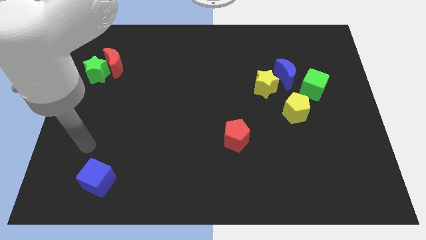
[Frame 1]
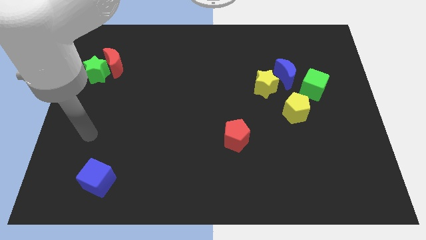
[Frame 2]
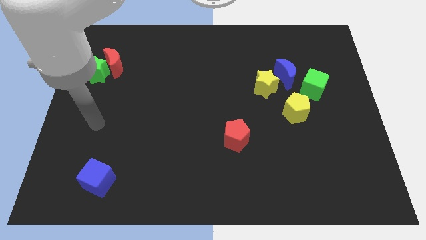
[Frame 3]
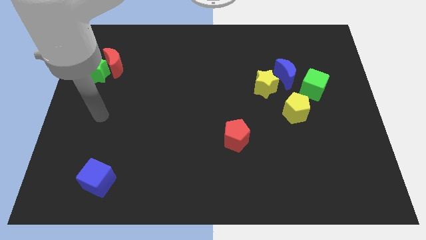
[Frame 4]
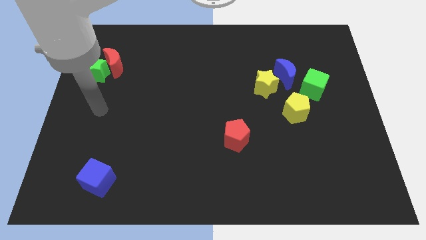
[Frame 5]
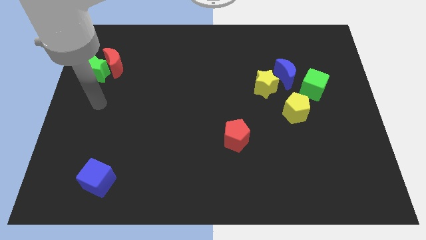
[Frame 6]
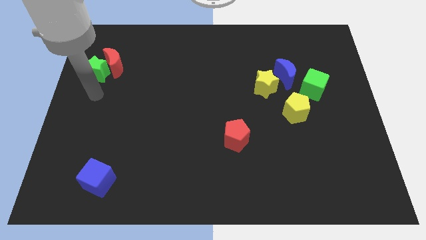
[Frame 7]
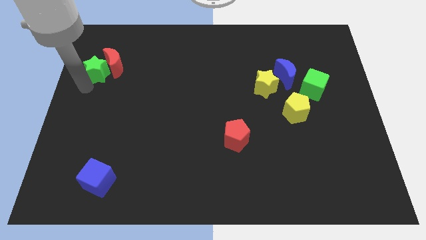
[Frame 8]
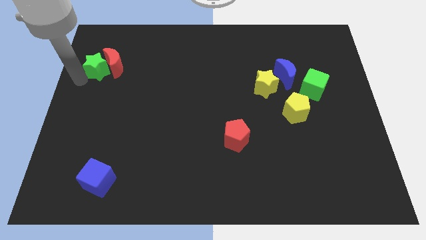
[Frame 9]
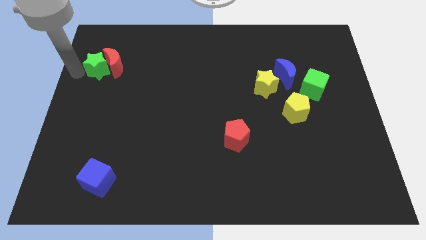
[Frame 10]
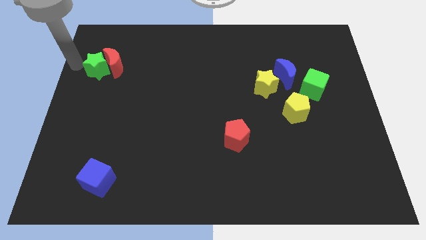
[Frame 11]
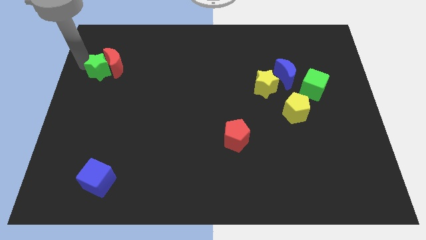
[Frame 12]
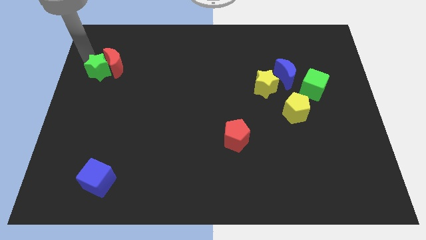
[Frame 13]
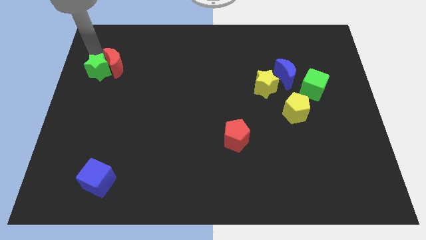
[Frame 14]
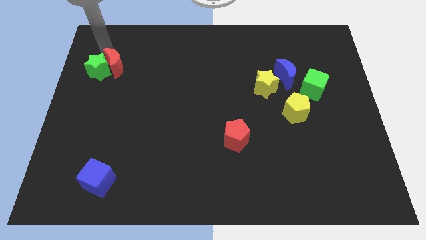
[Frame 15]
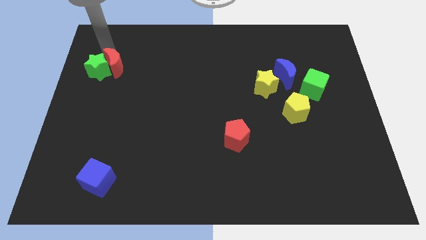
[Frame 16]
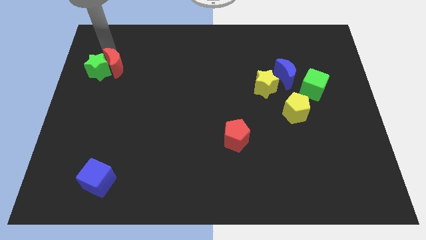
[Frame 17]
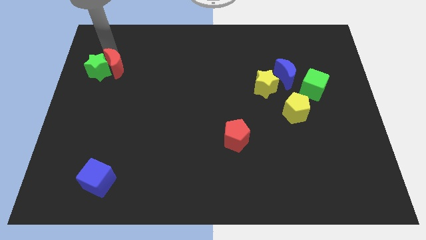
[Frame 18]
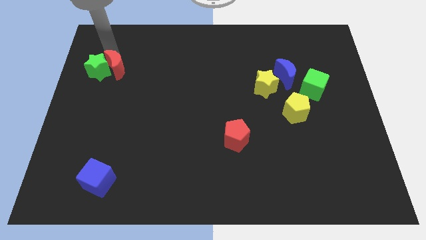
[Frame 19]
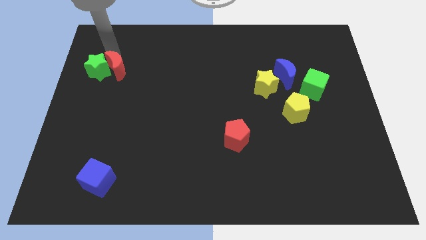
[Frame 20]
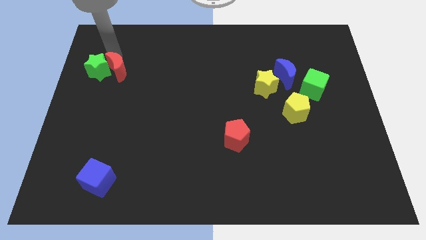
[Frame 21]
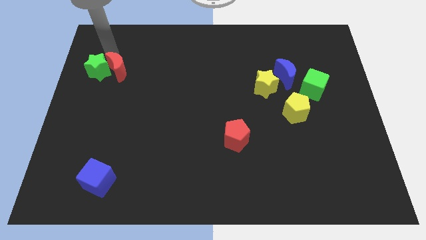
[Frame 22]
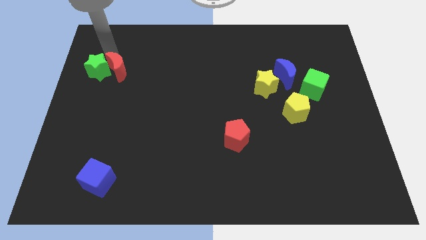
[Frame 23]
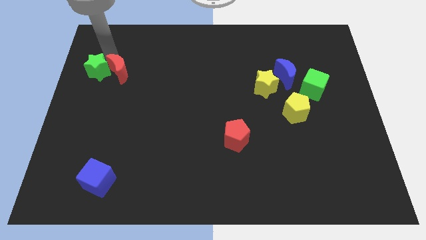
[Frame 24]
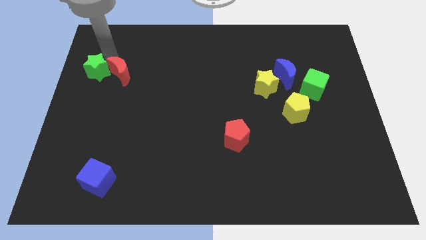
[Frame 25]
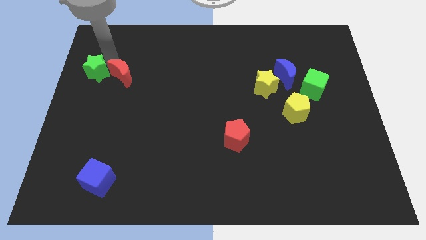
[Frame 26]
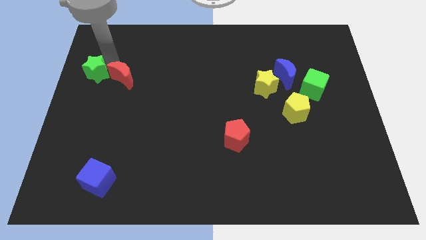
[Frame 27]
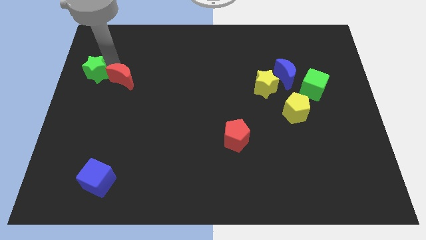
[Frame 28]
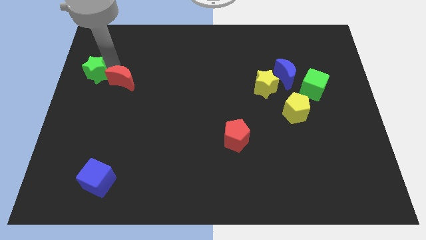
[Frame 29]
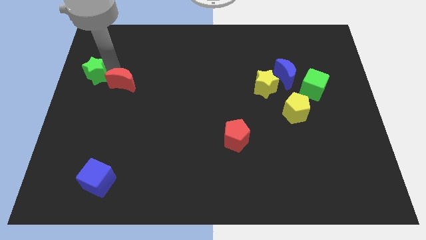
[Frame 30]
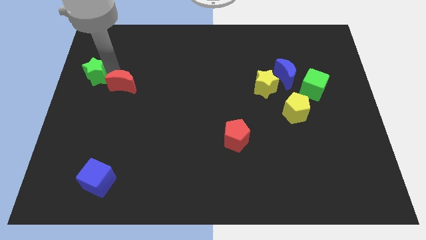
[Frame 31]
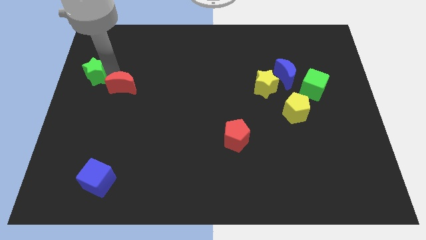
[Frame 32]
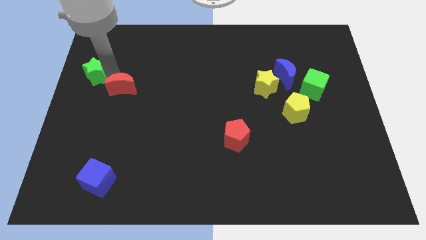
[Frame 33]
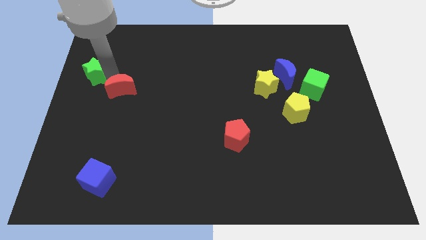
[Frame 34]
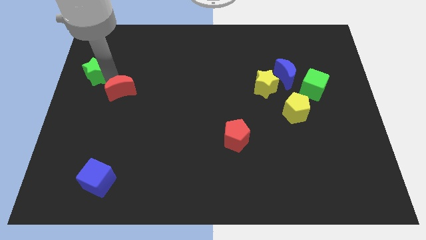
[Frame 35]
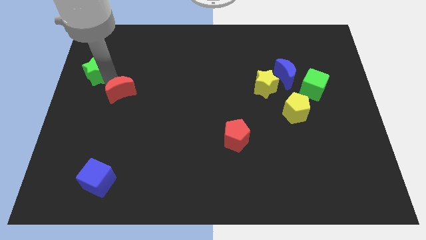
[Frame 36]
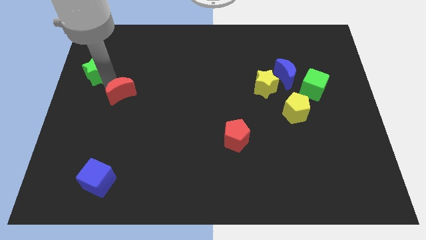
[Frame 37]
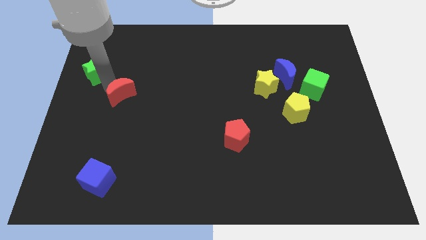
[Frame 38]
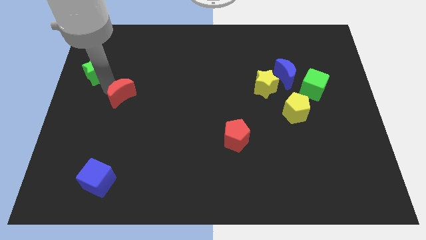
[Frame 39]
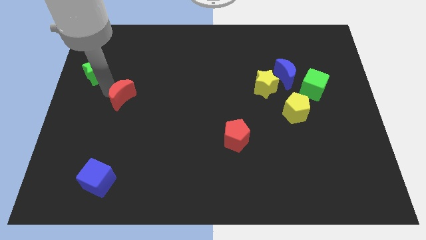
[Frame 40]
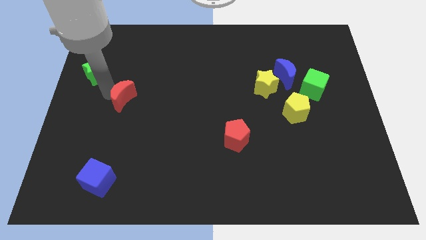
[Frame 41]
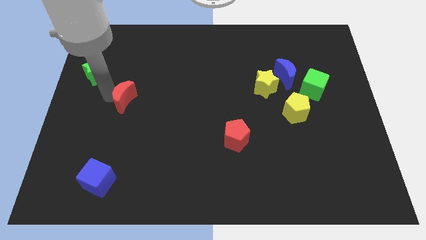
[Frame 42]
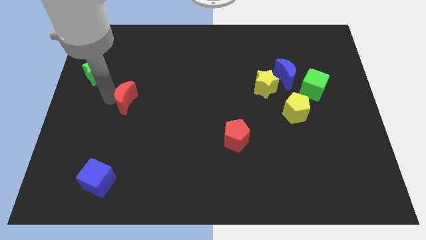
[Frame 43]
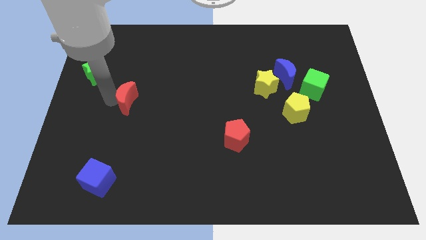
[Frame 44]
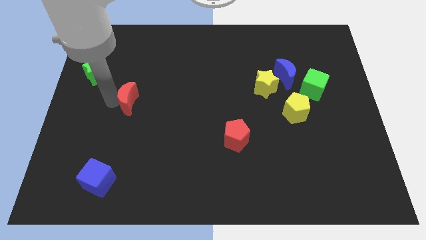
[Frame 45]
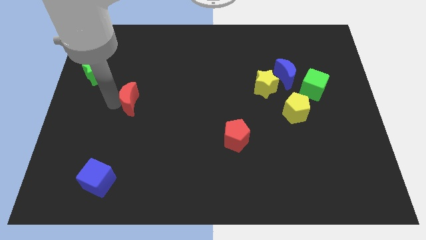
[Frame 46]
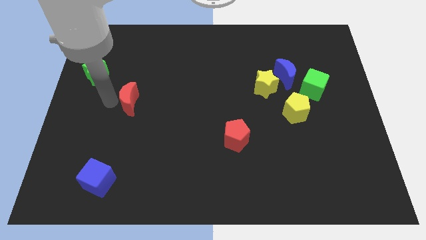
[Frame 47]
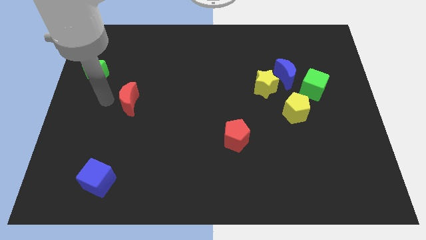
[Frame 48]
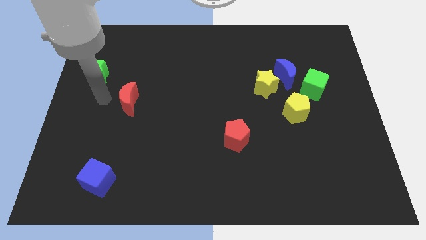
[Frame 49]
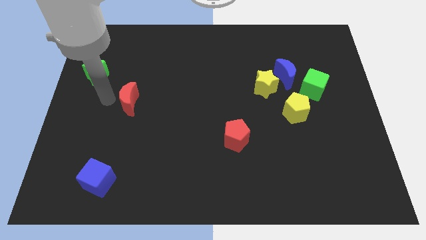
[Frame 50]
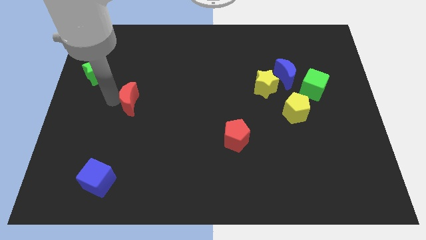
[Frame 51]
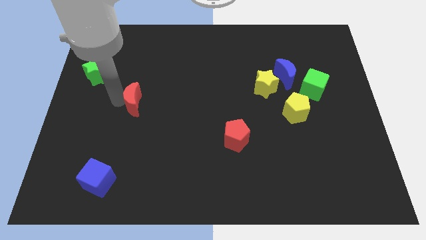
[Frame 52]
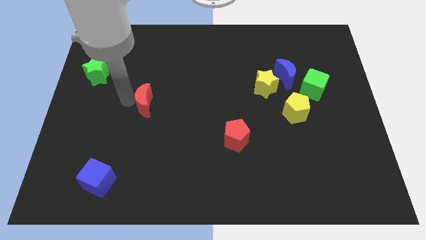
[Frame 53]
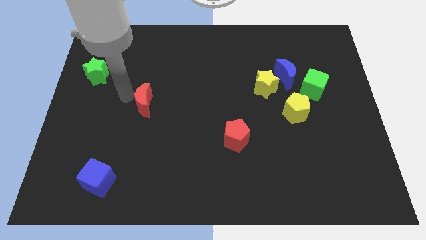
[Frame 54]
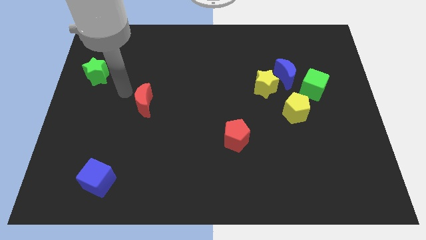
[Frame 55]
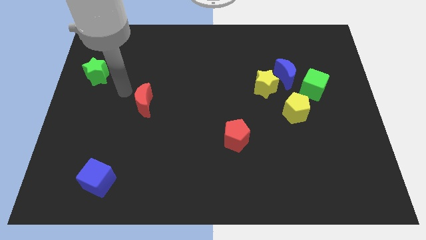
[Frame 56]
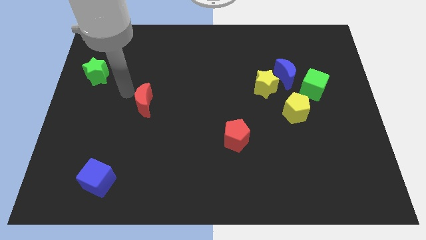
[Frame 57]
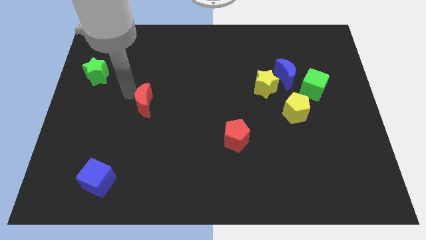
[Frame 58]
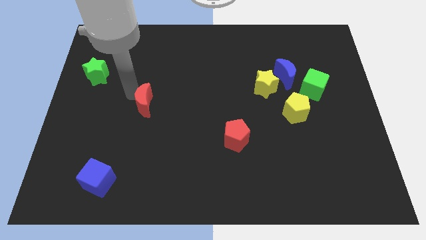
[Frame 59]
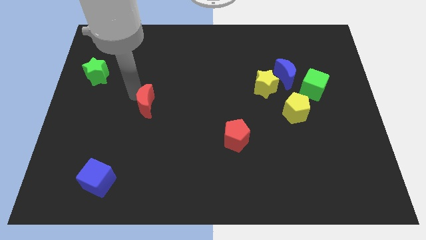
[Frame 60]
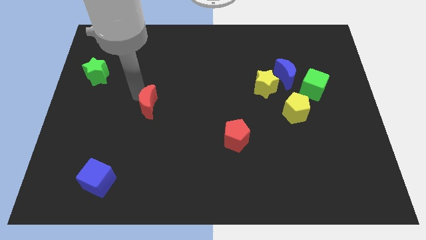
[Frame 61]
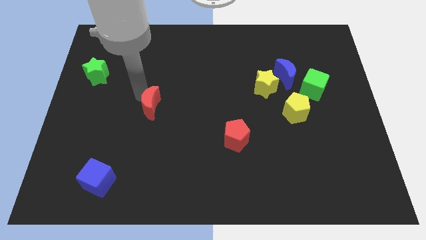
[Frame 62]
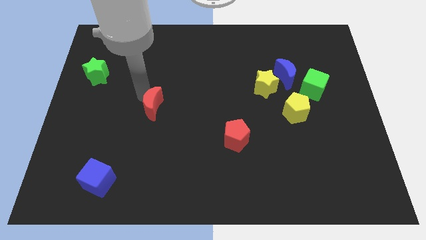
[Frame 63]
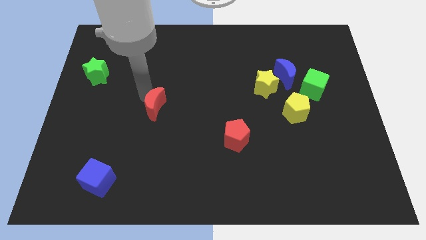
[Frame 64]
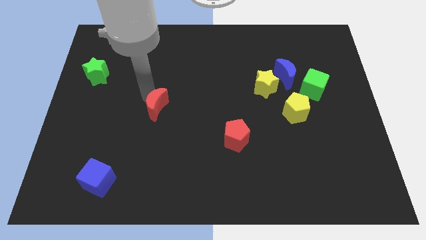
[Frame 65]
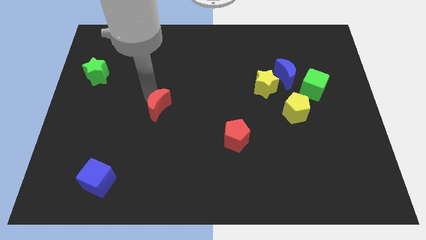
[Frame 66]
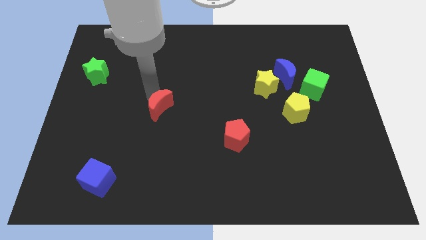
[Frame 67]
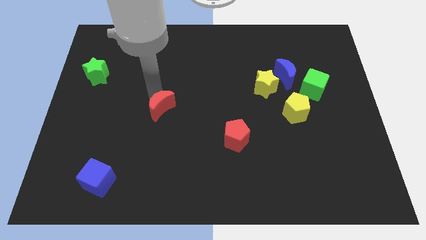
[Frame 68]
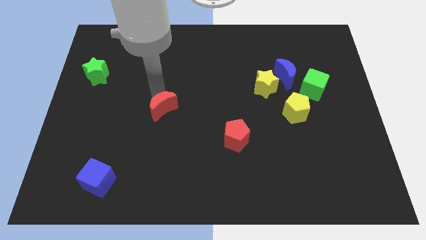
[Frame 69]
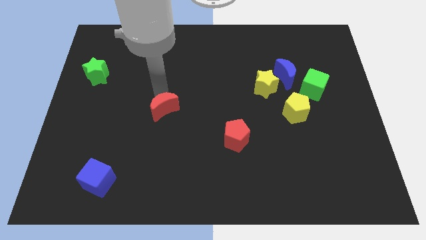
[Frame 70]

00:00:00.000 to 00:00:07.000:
push the red moon down and then right

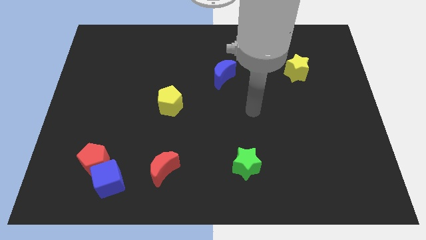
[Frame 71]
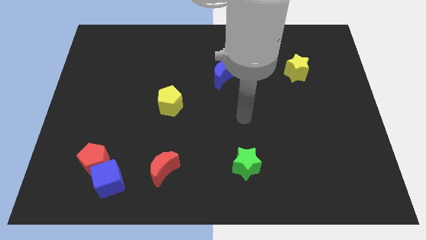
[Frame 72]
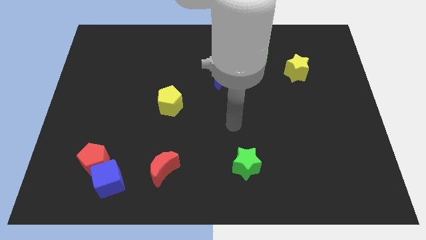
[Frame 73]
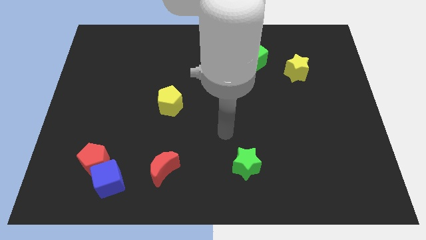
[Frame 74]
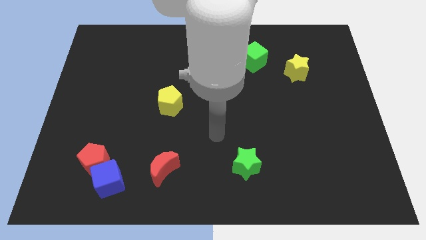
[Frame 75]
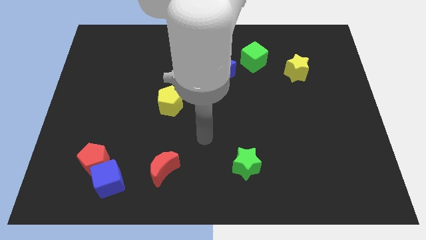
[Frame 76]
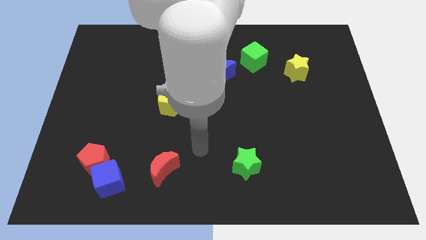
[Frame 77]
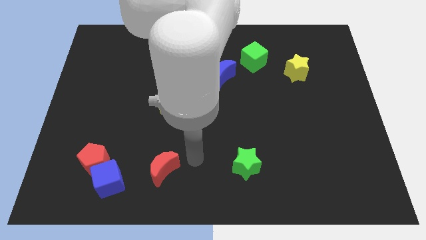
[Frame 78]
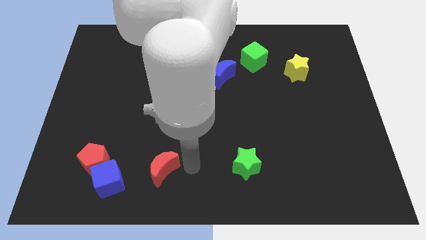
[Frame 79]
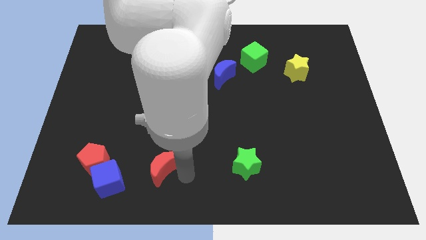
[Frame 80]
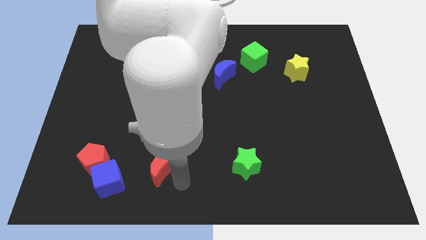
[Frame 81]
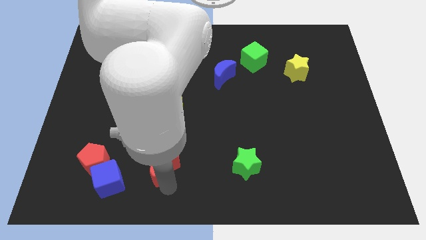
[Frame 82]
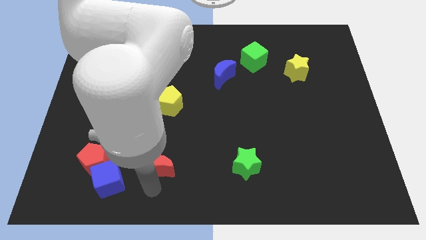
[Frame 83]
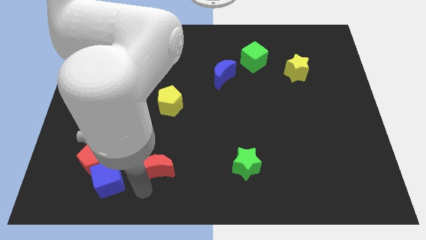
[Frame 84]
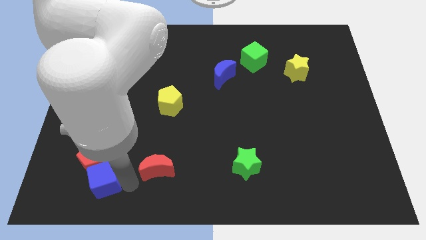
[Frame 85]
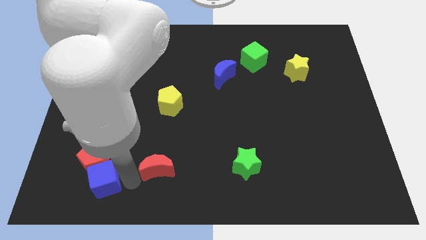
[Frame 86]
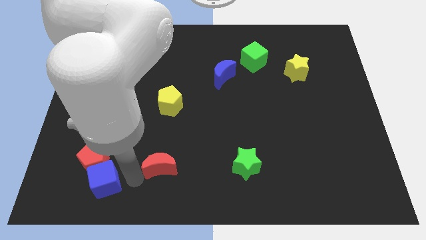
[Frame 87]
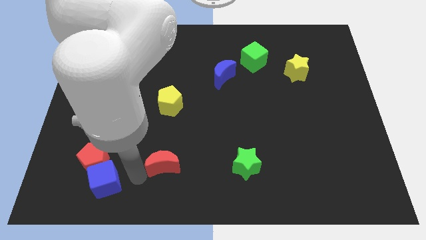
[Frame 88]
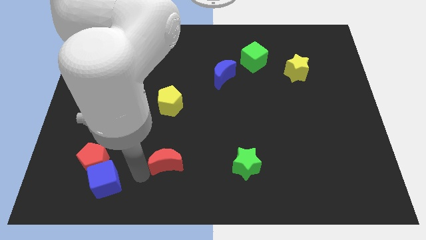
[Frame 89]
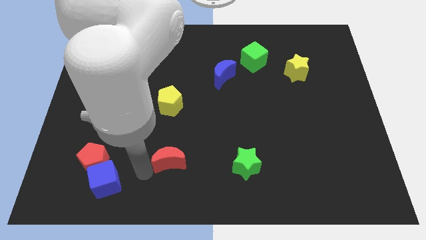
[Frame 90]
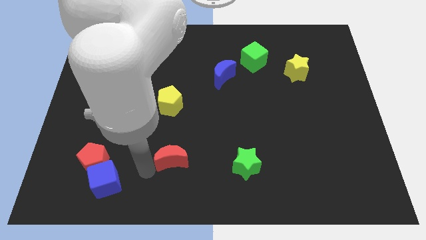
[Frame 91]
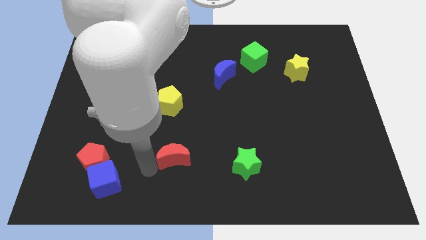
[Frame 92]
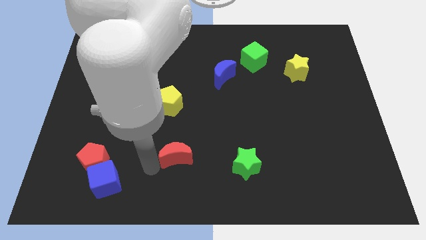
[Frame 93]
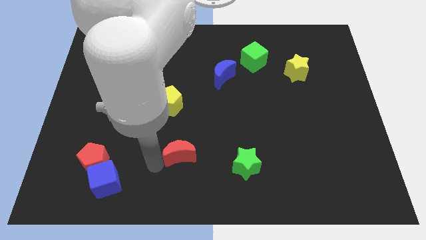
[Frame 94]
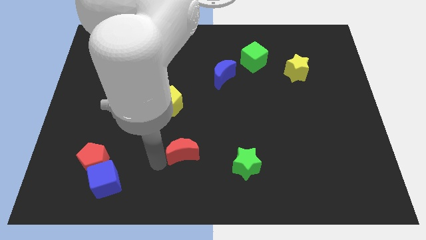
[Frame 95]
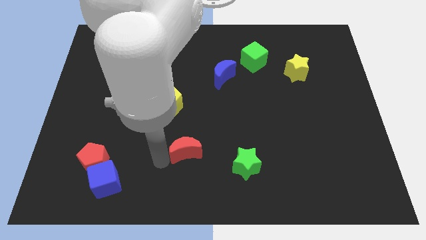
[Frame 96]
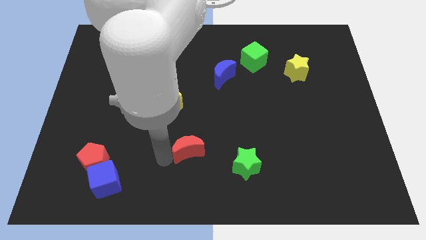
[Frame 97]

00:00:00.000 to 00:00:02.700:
push the red moon a bit upwards and right
